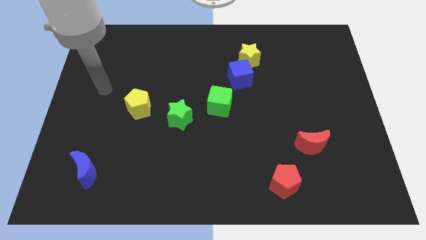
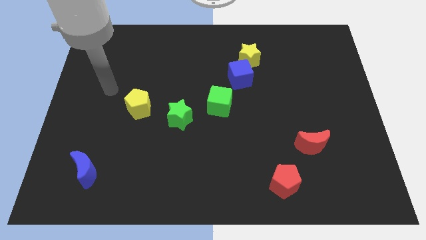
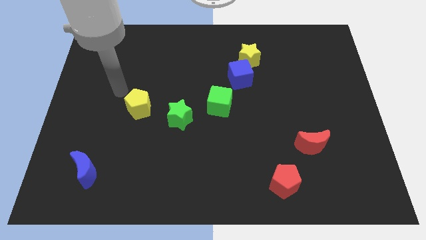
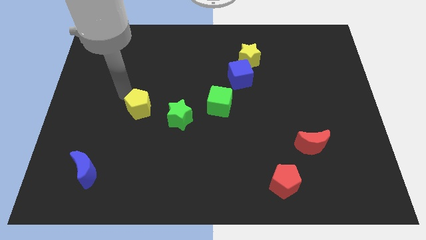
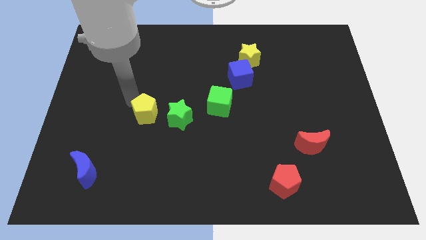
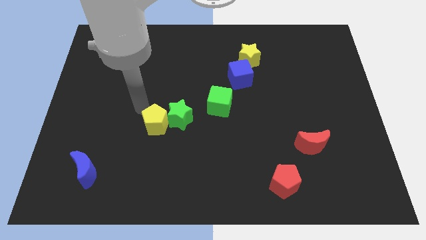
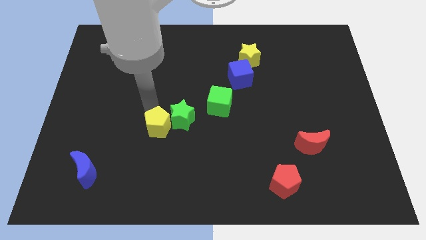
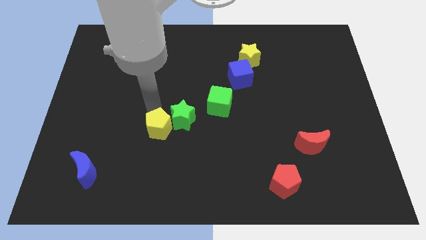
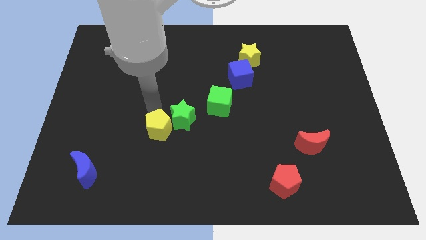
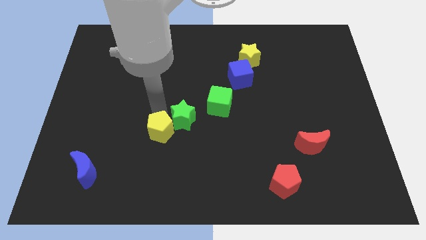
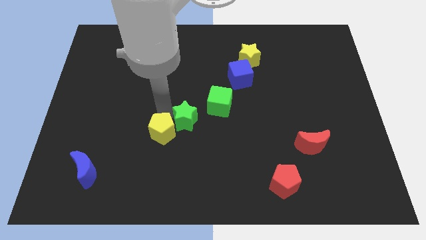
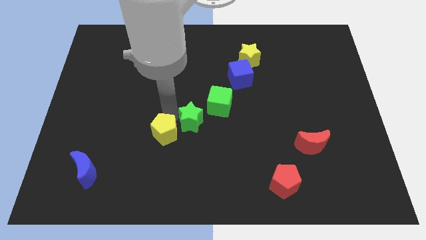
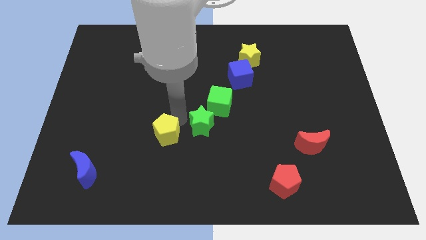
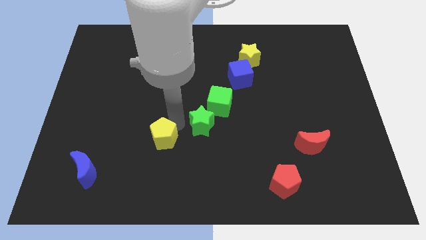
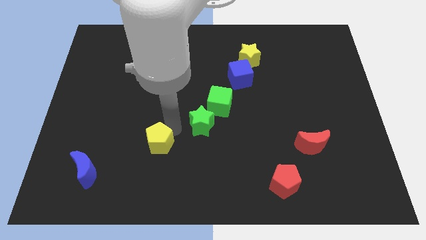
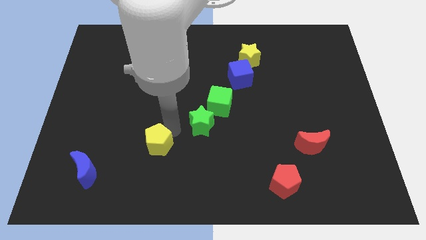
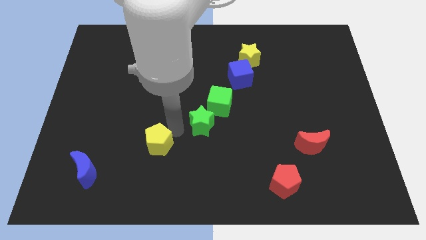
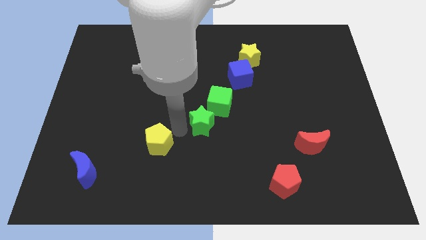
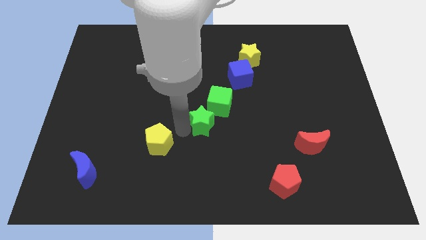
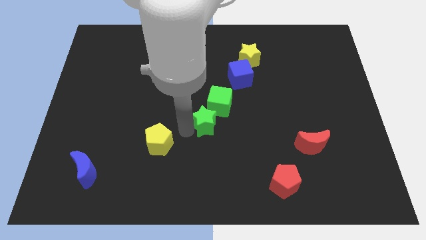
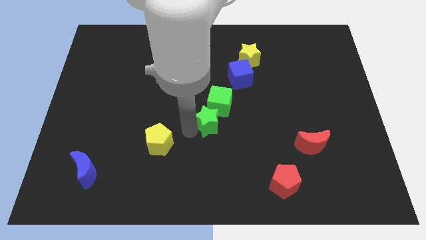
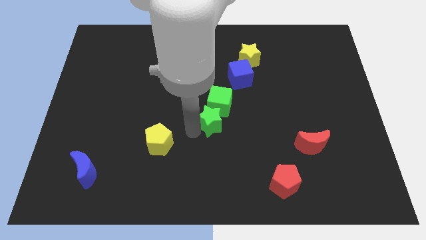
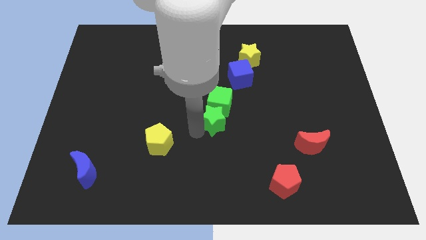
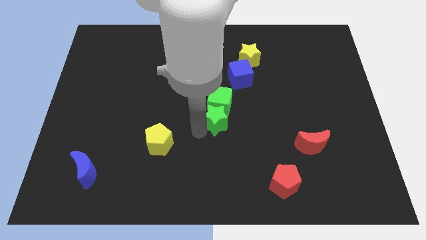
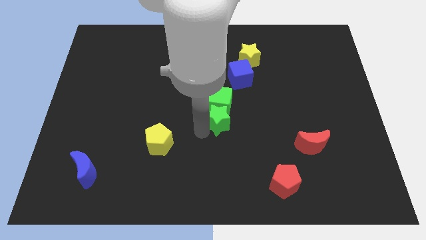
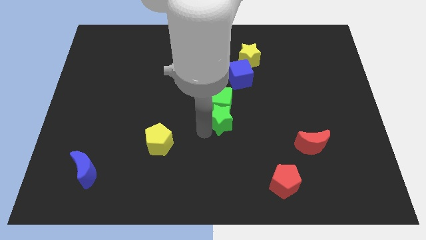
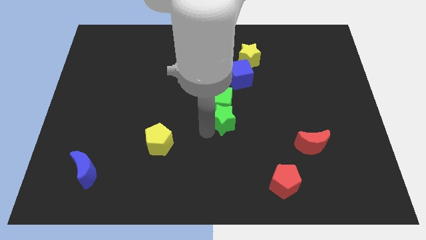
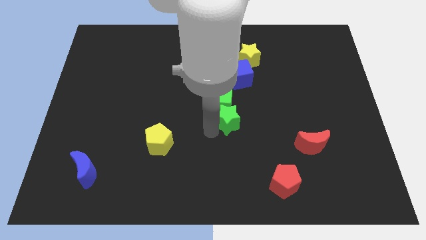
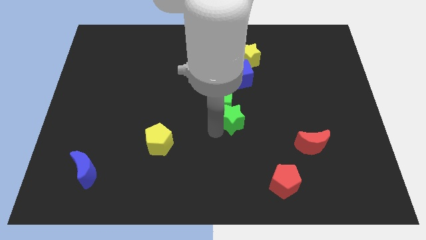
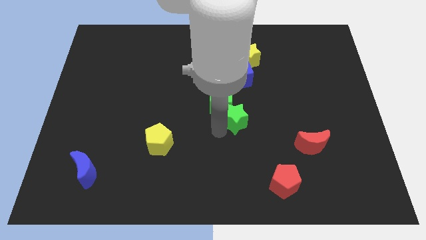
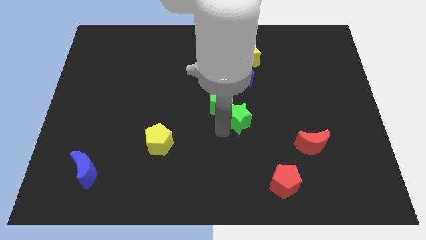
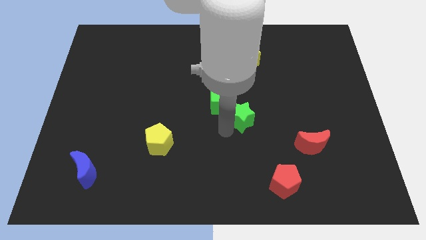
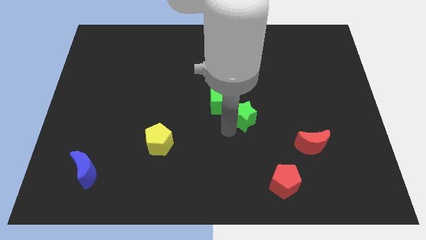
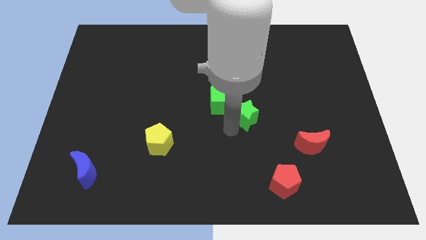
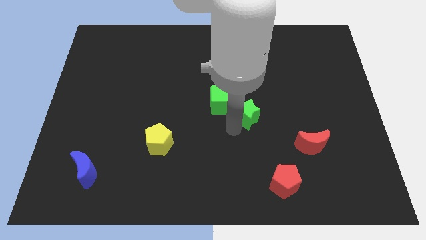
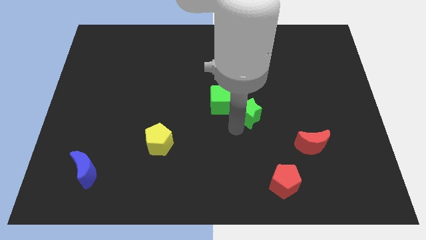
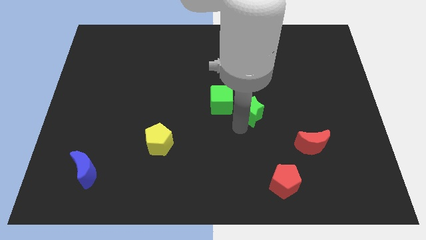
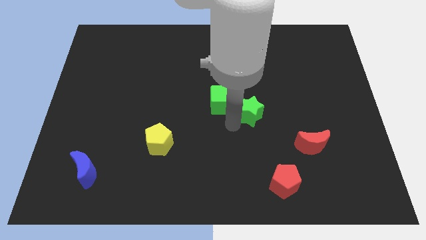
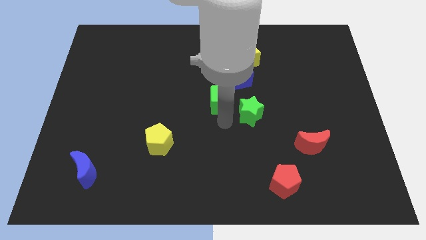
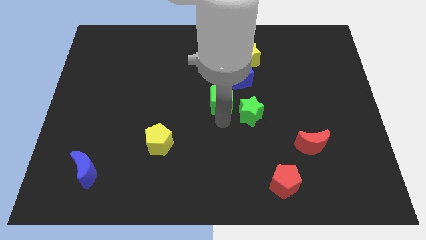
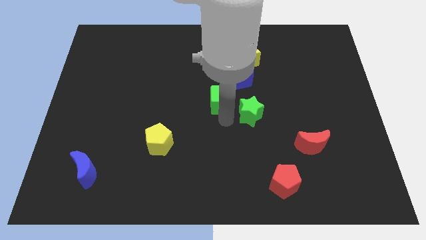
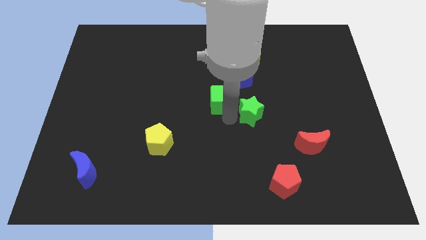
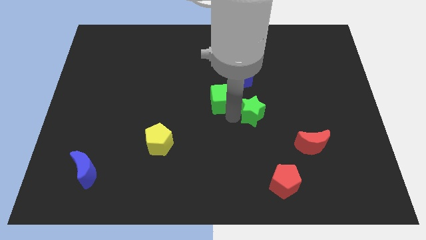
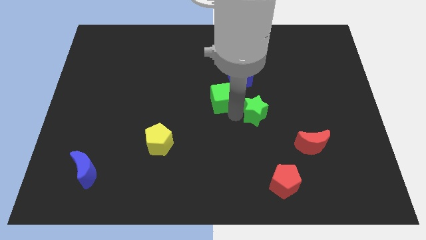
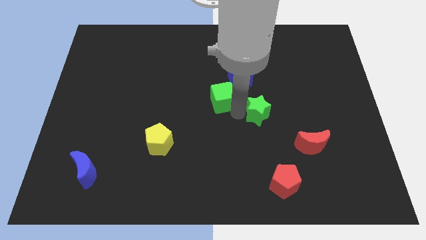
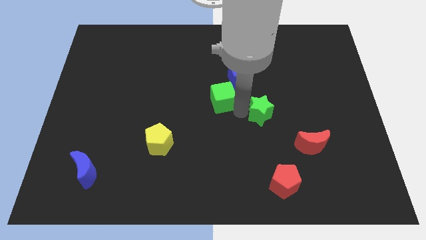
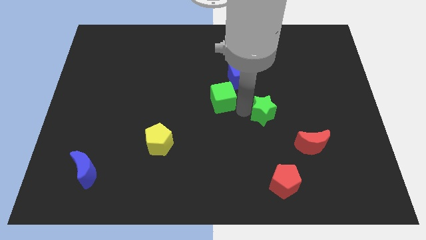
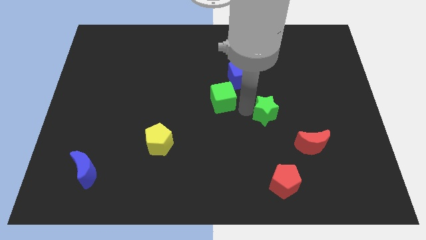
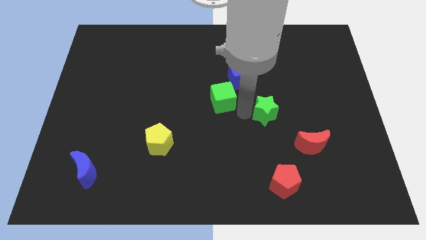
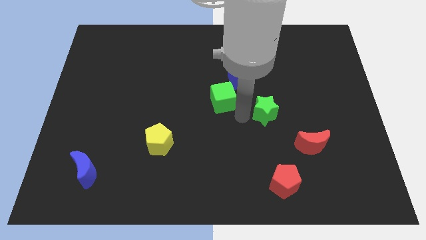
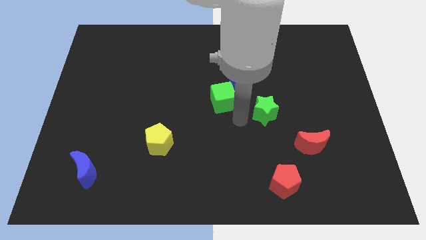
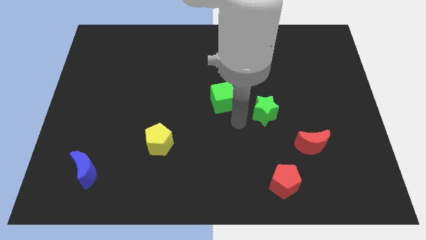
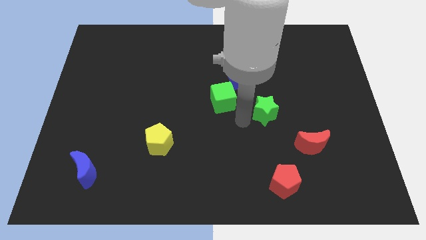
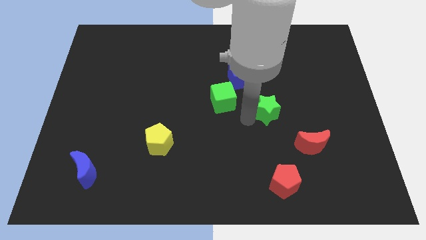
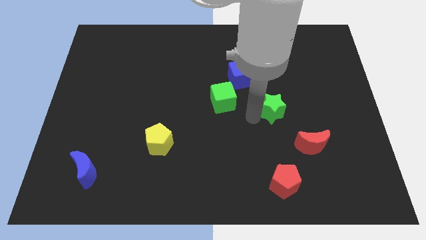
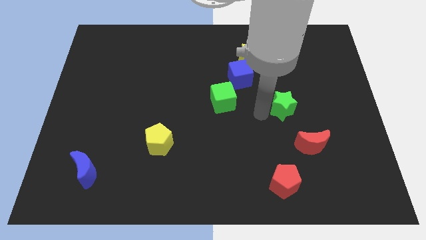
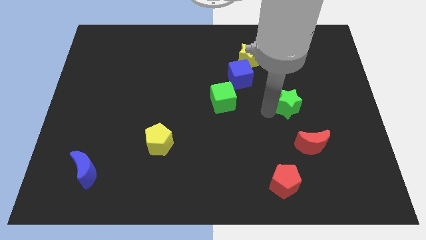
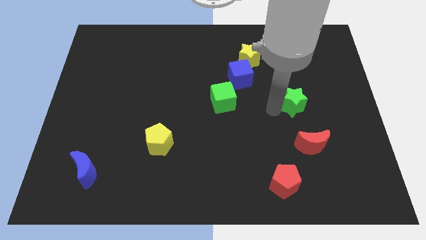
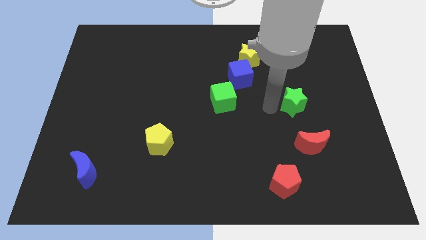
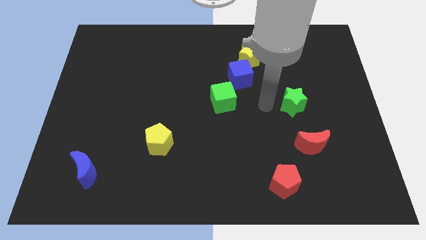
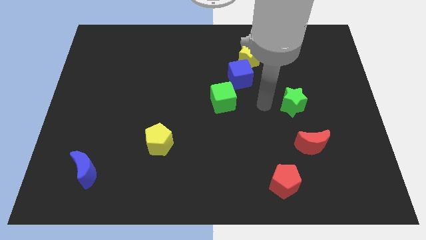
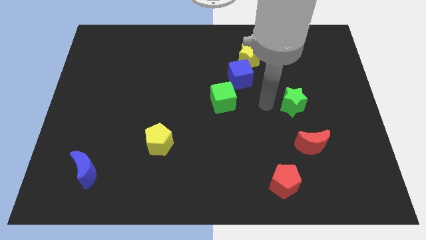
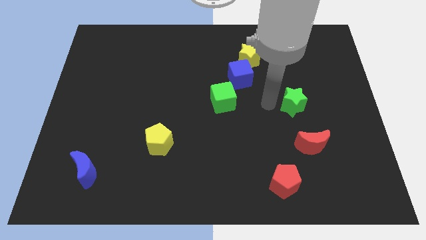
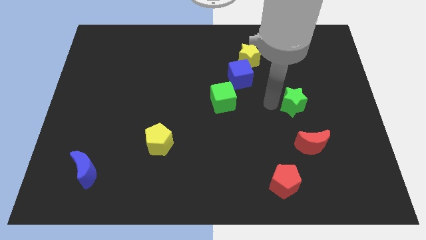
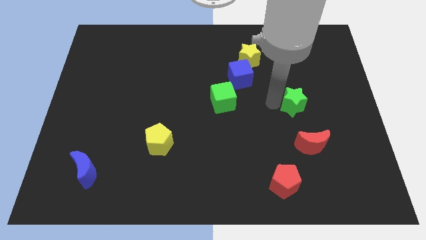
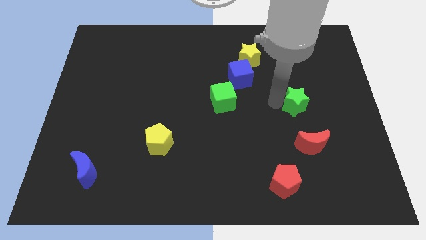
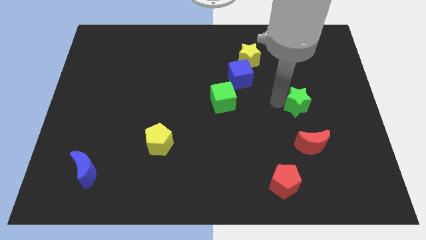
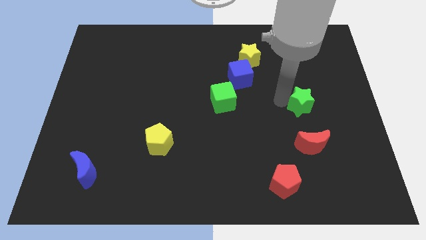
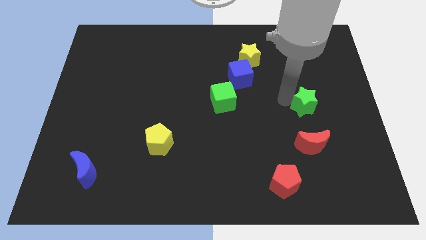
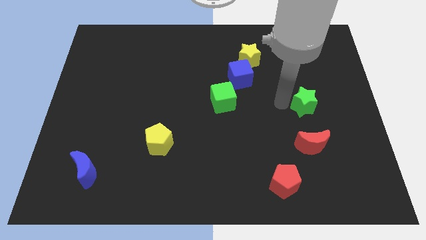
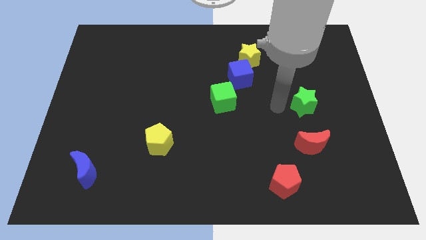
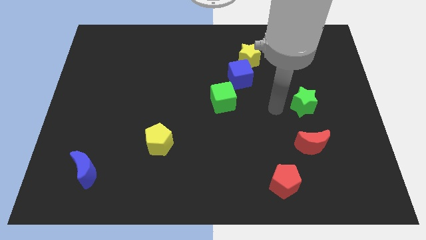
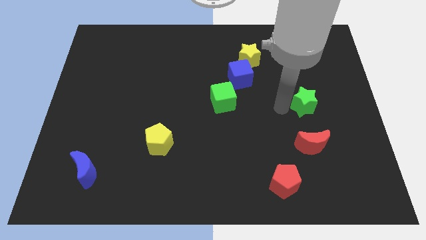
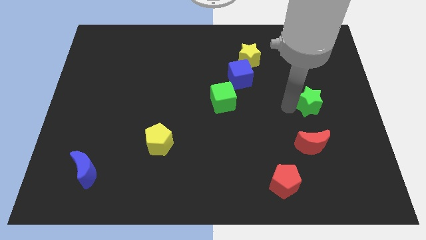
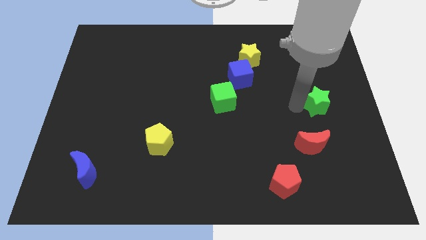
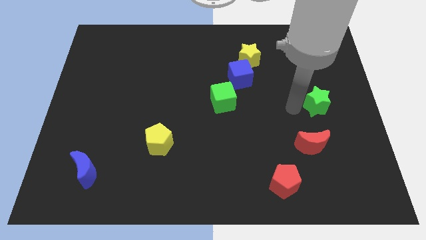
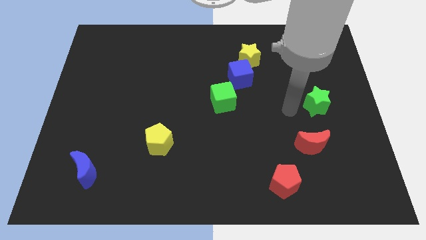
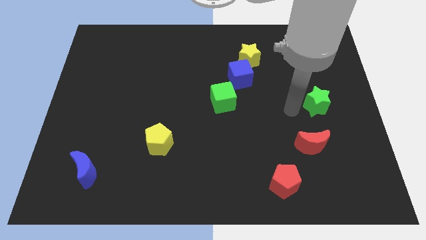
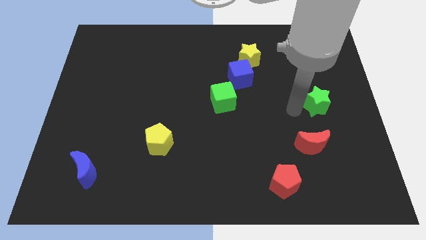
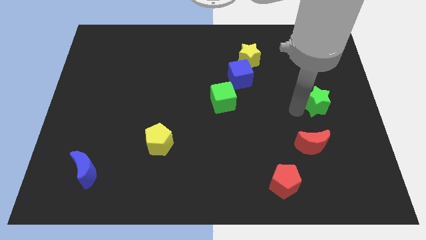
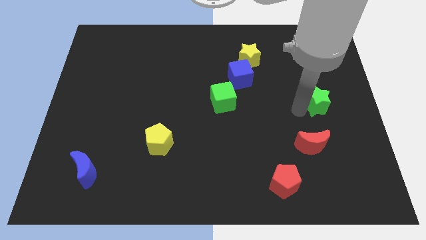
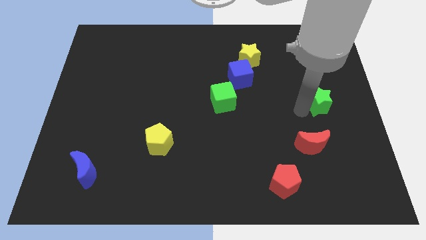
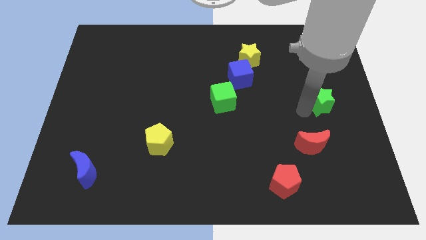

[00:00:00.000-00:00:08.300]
put the green star to the right side
